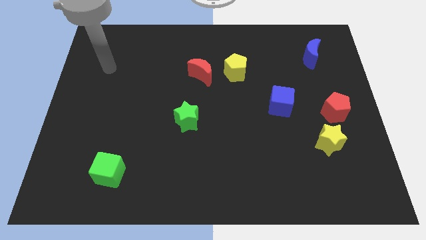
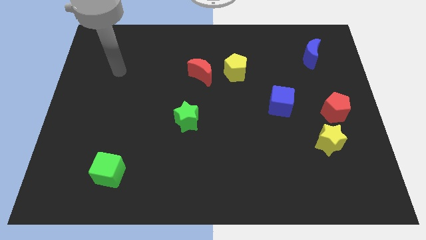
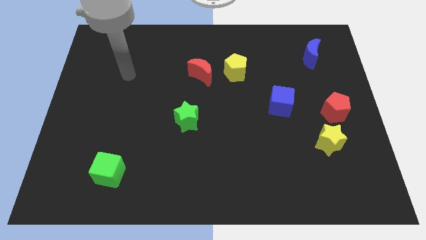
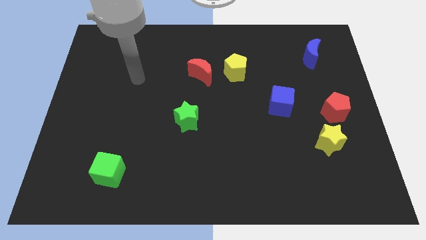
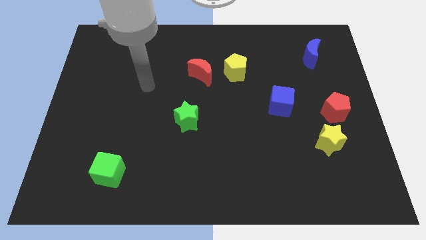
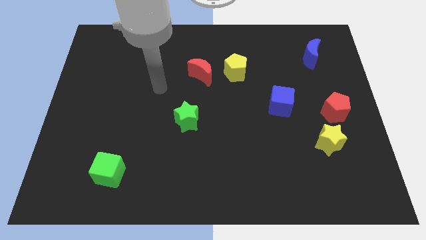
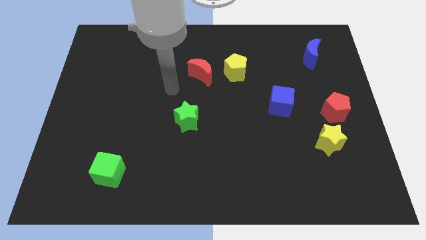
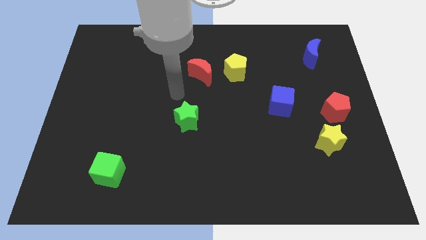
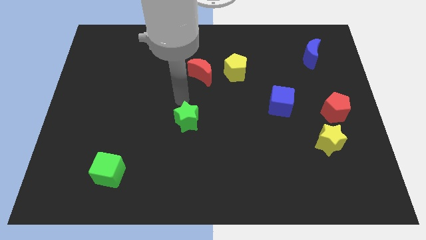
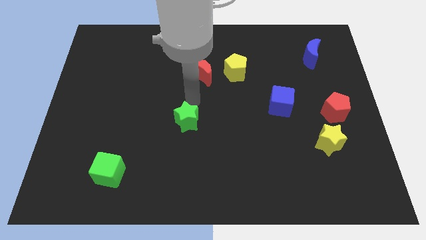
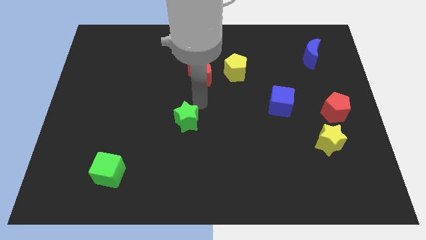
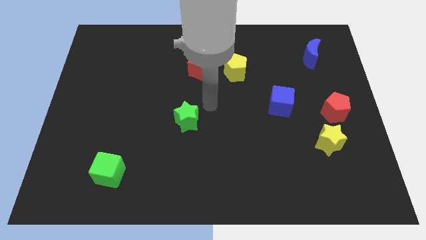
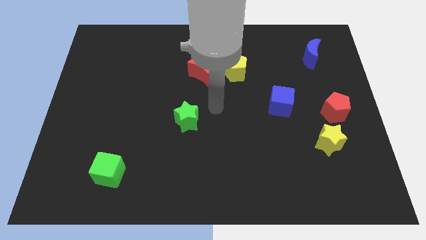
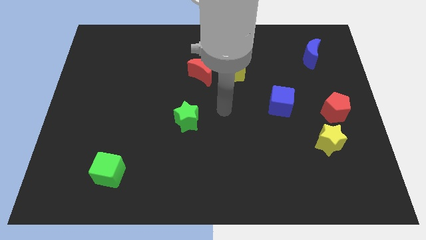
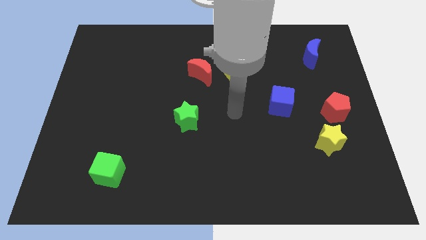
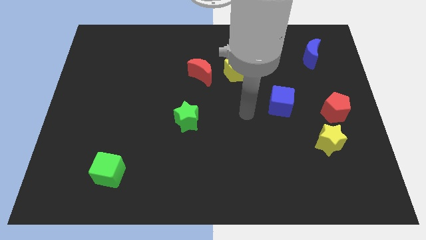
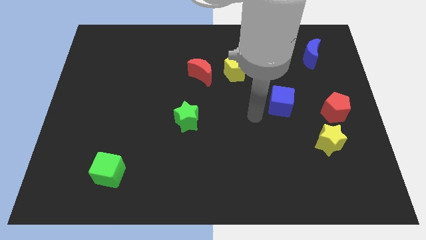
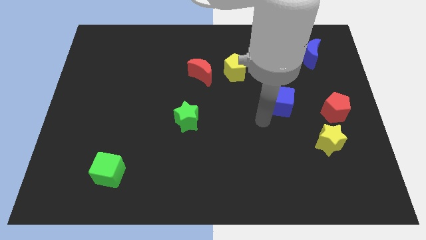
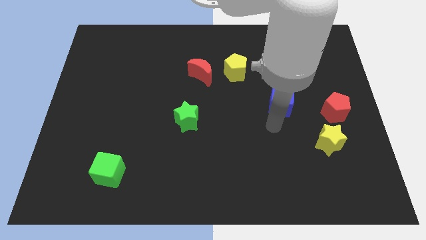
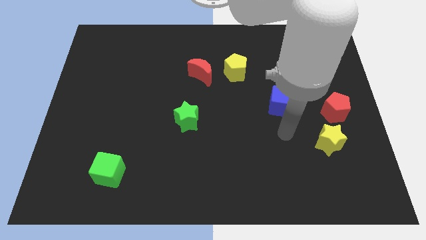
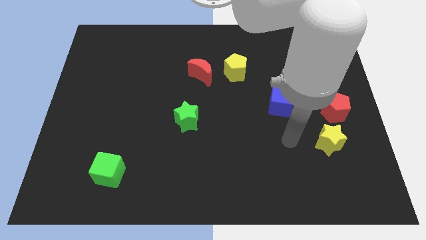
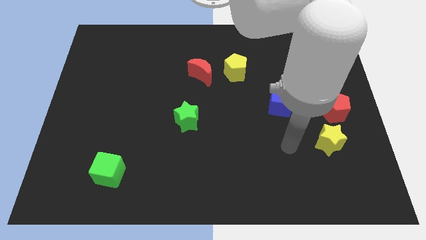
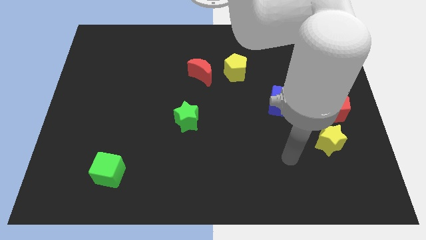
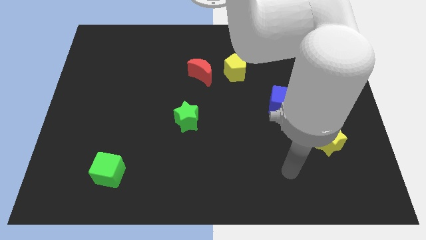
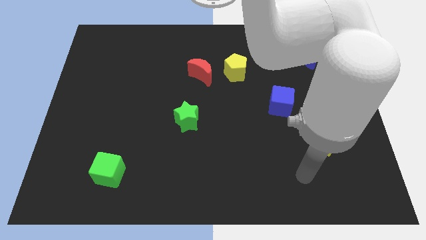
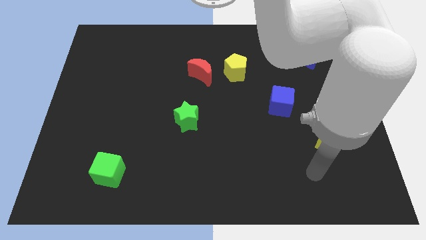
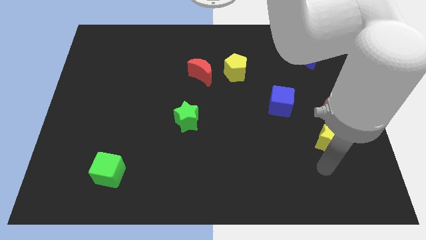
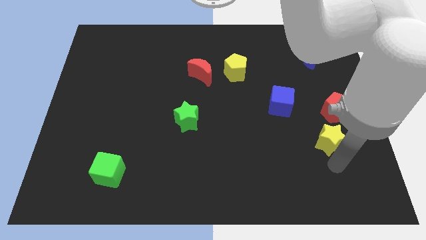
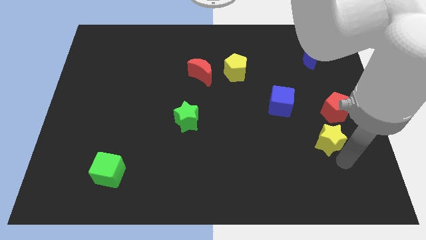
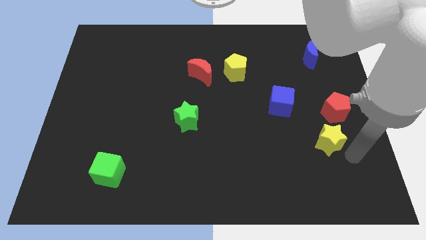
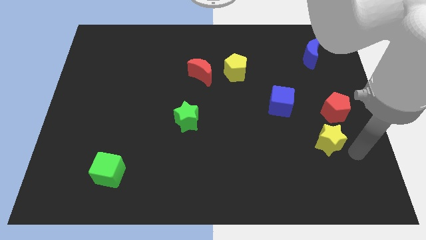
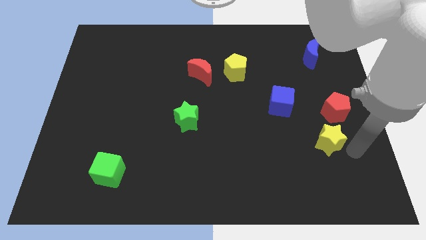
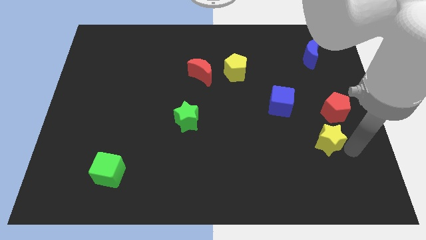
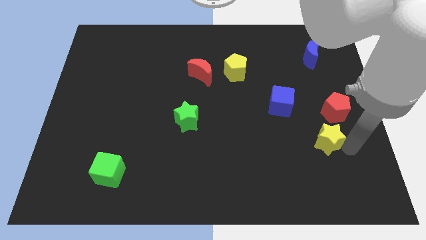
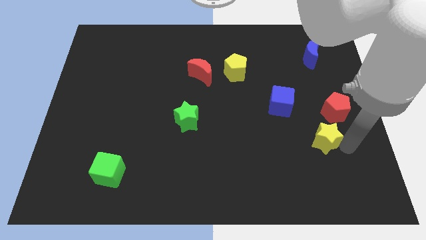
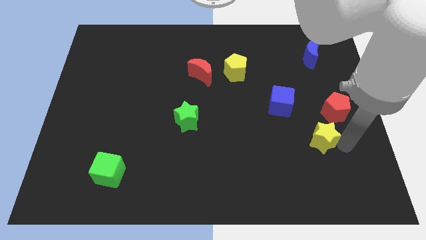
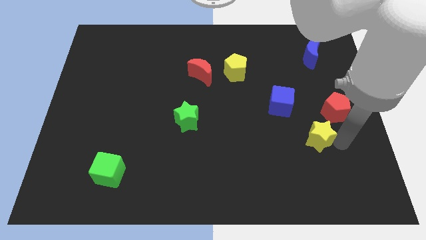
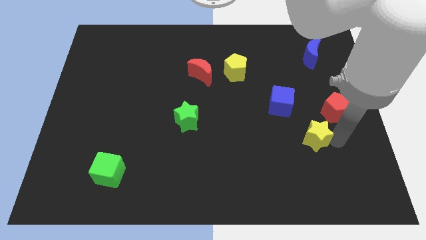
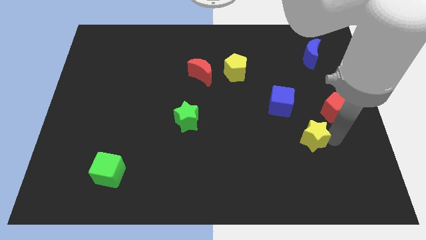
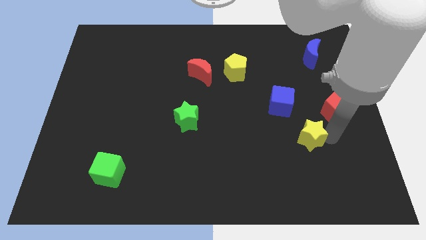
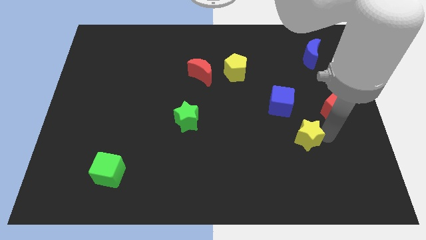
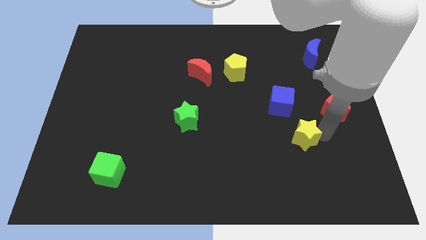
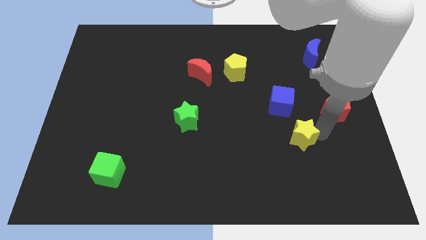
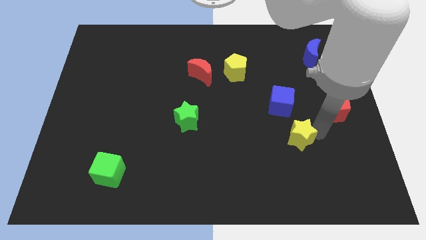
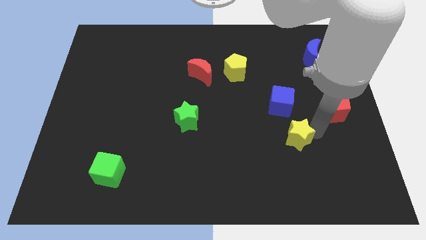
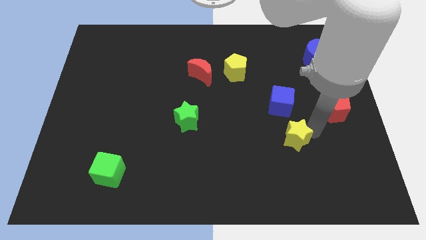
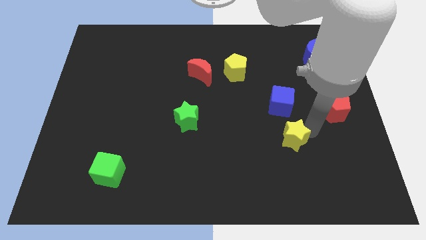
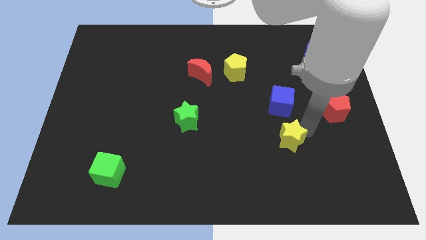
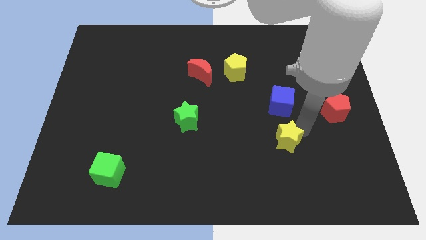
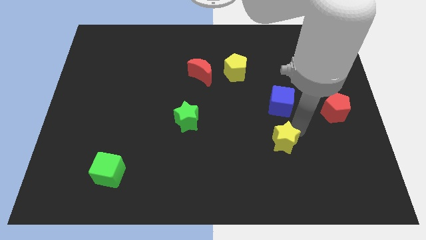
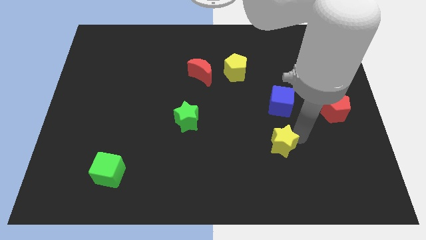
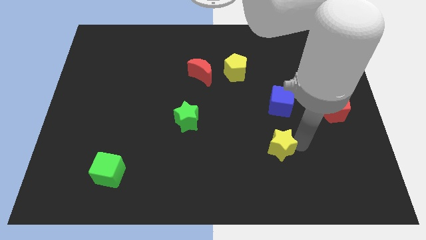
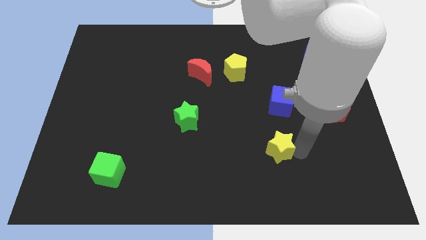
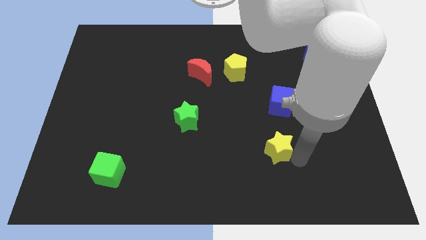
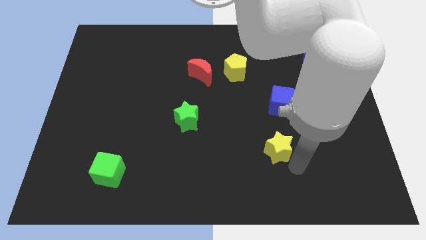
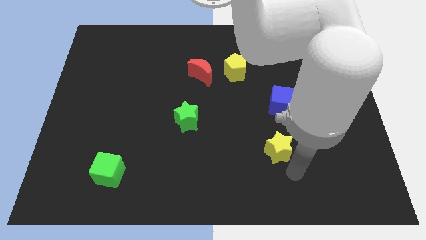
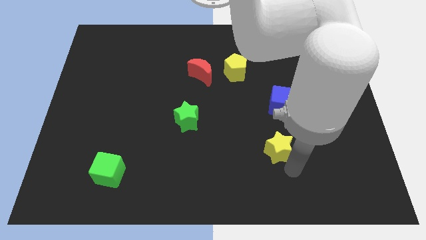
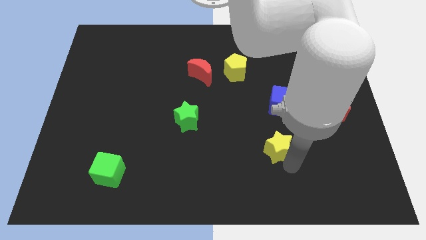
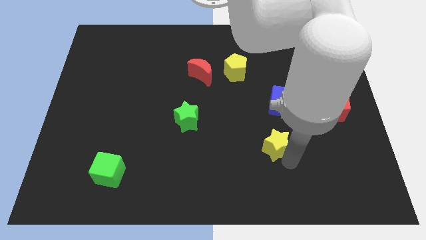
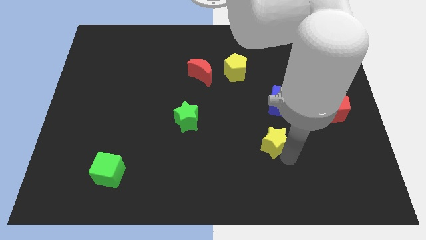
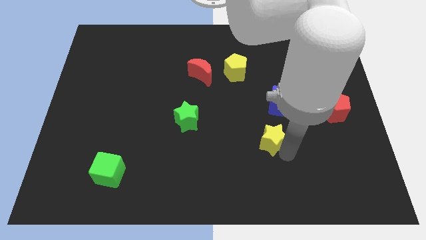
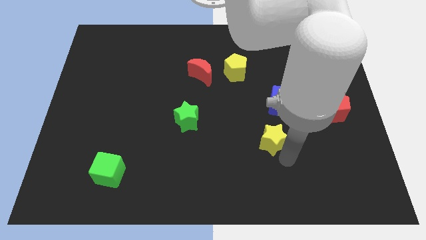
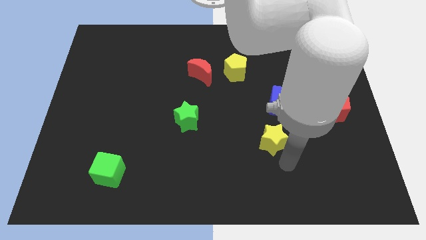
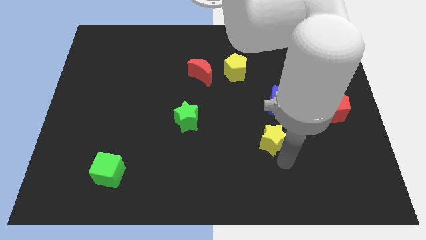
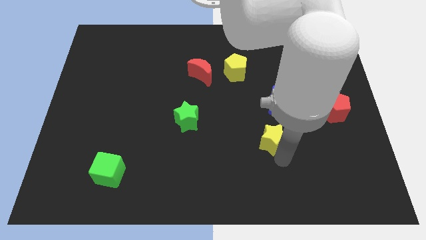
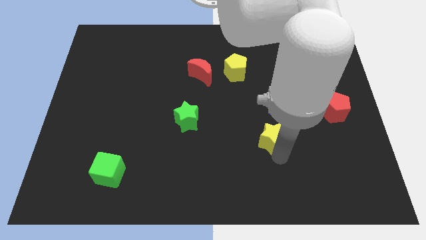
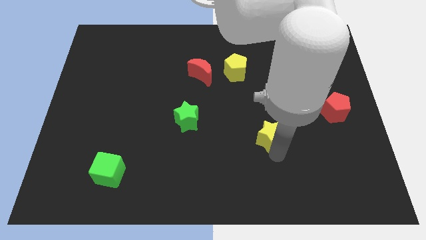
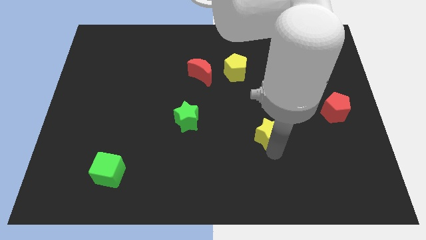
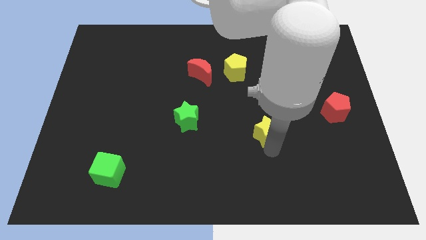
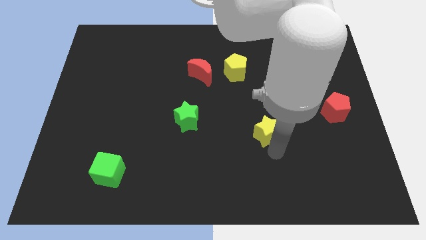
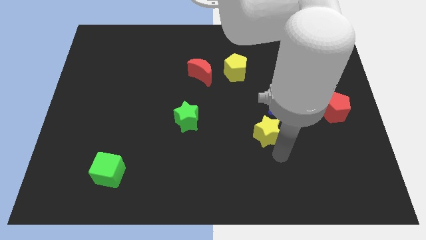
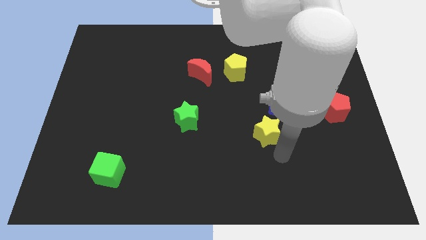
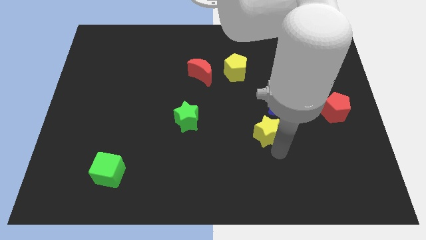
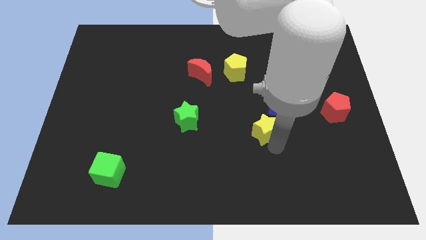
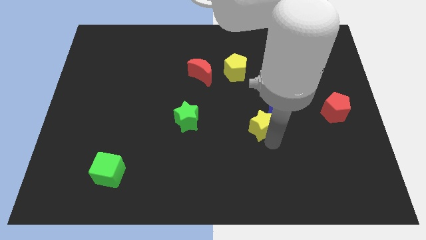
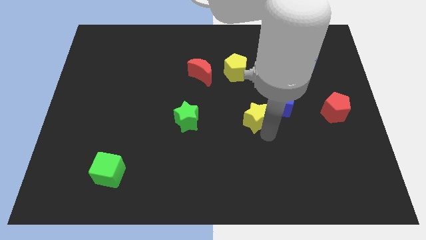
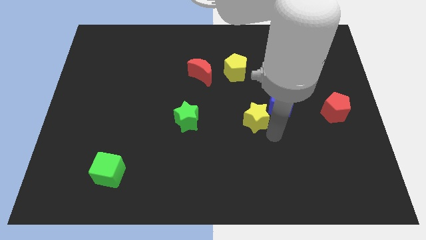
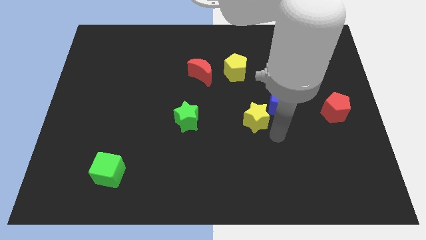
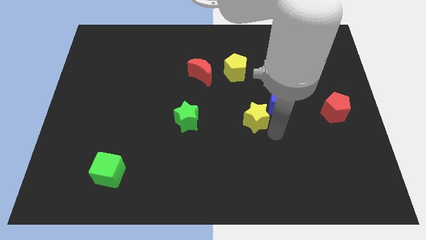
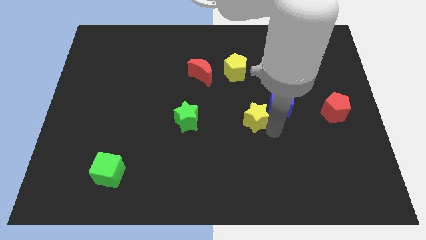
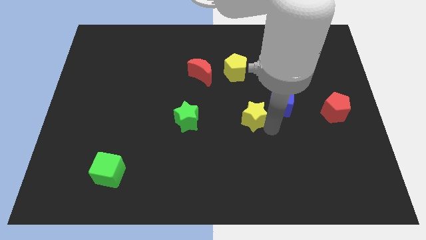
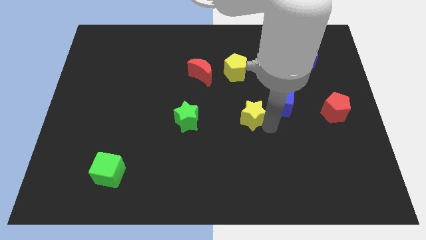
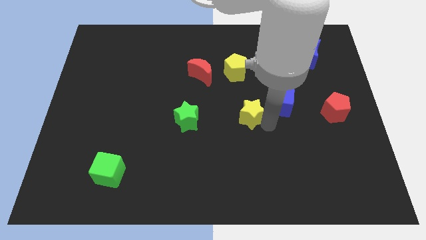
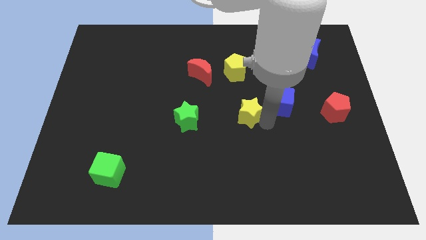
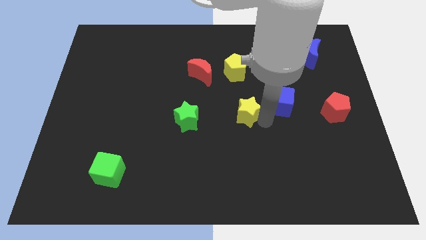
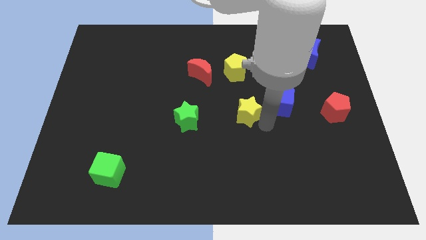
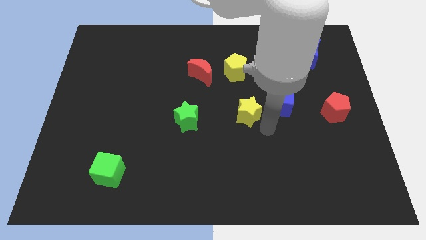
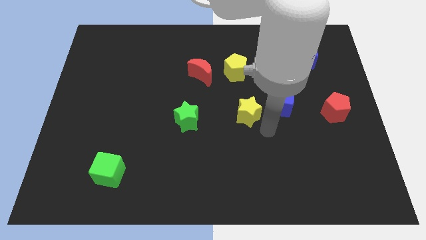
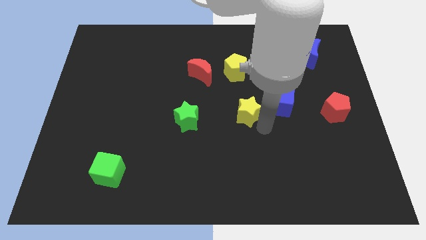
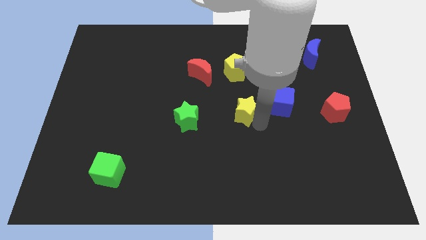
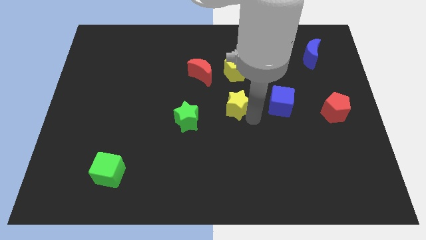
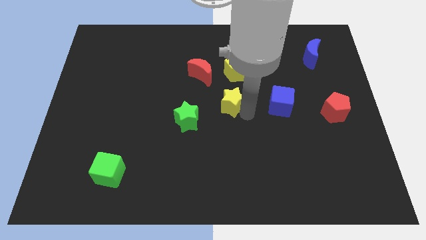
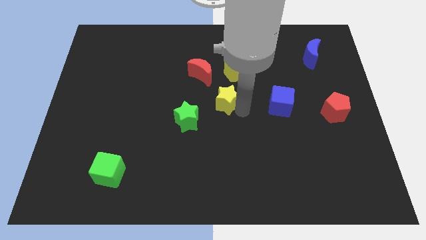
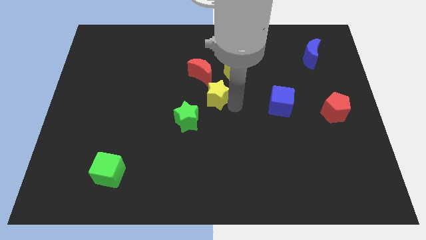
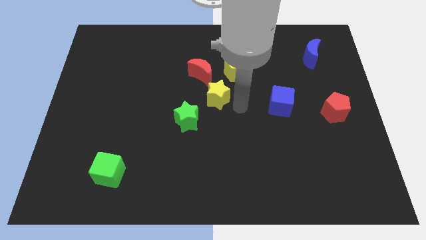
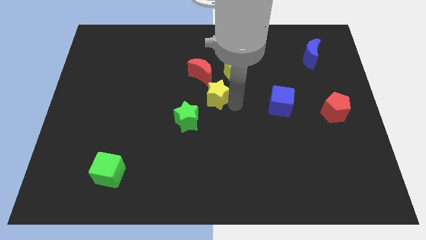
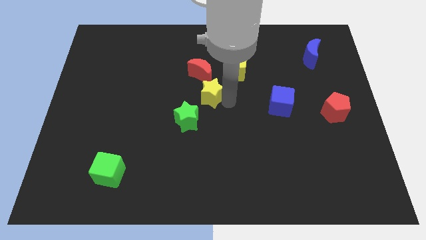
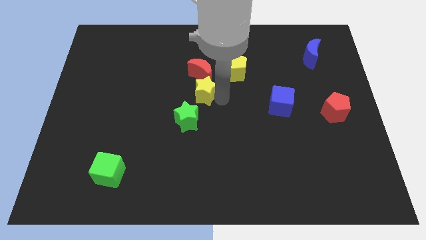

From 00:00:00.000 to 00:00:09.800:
push the yellow star above the green star
